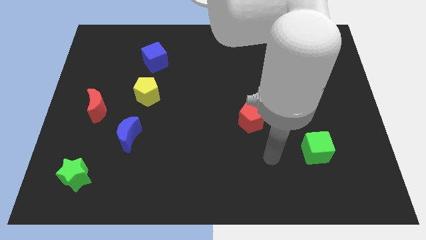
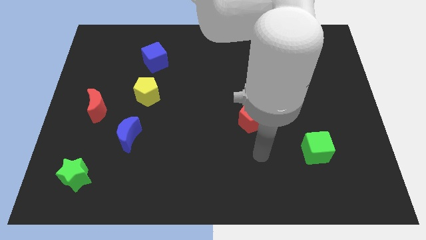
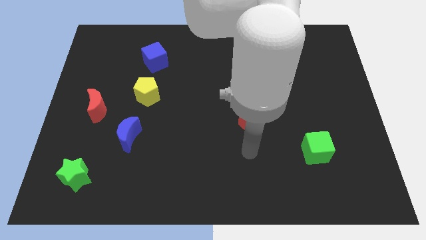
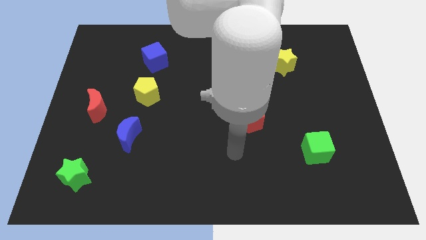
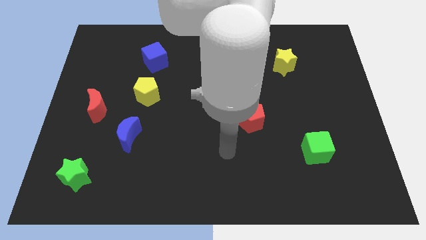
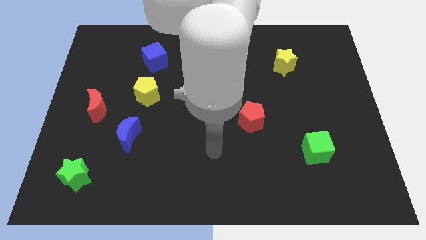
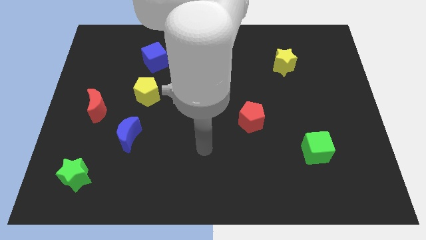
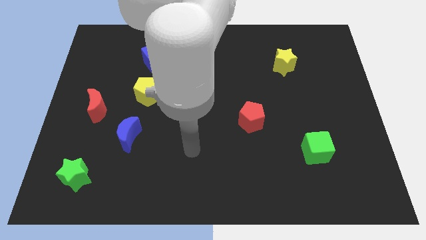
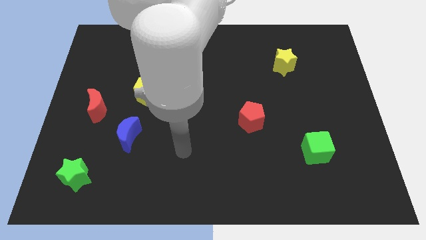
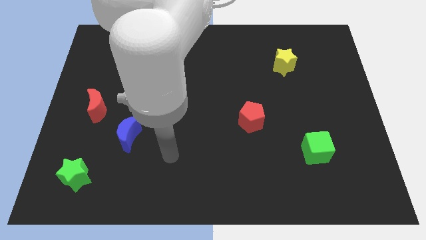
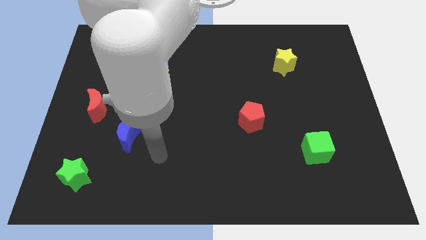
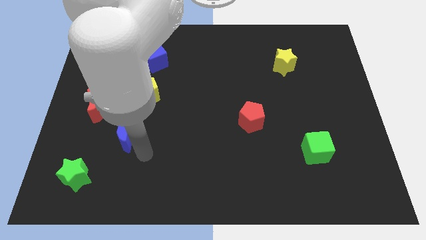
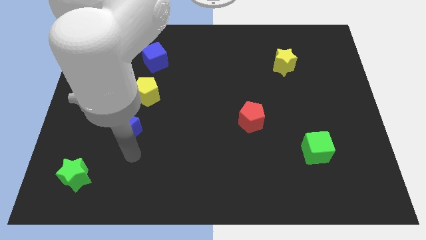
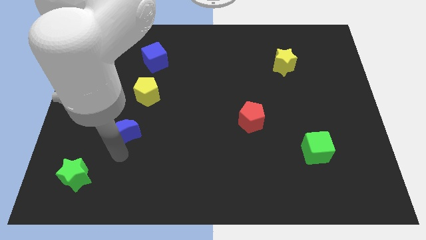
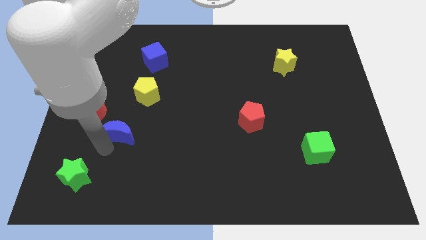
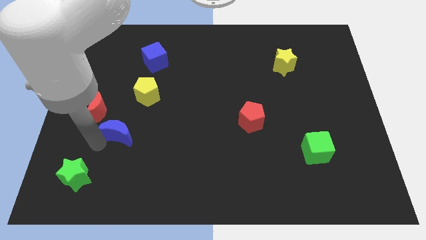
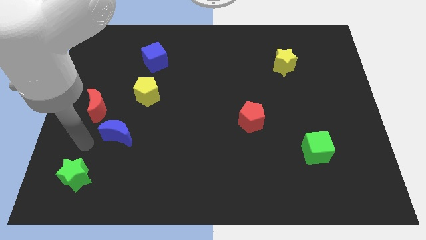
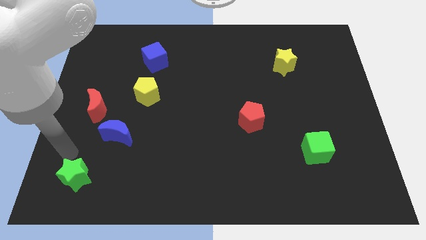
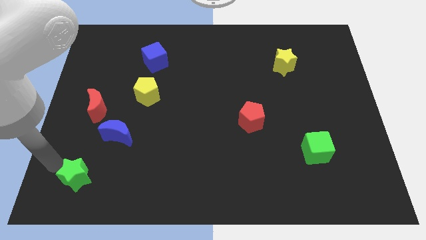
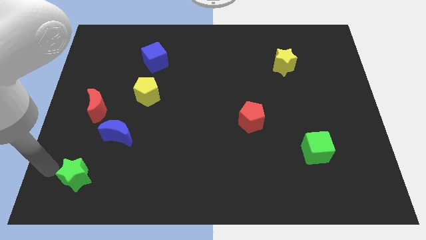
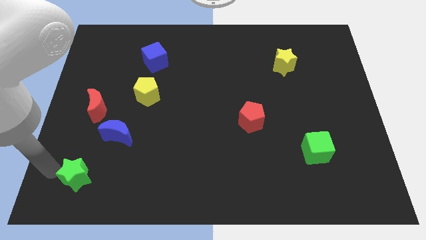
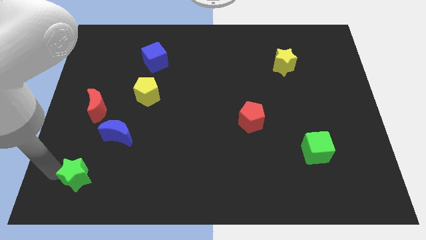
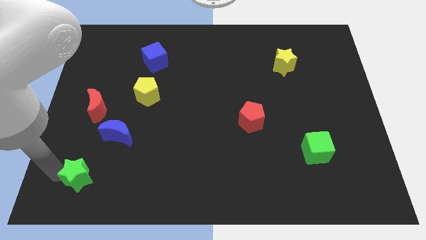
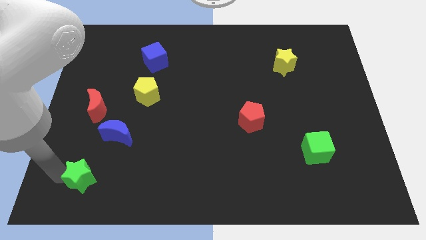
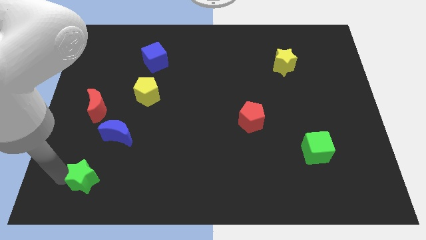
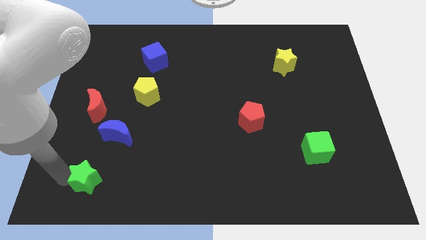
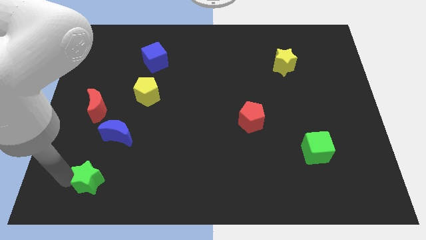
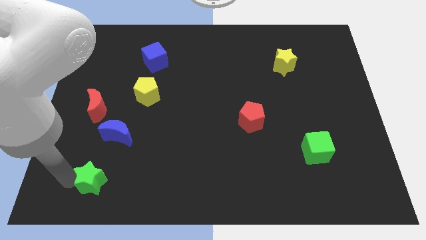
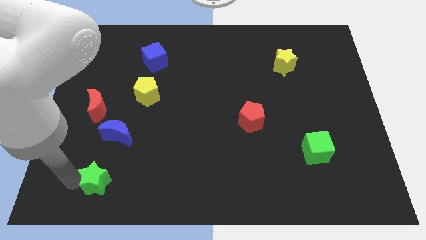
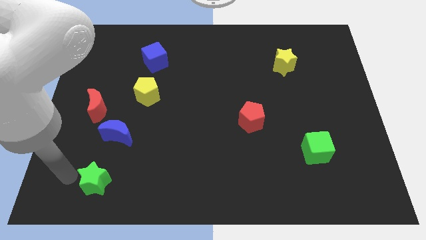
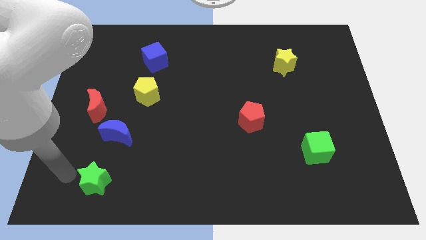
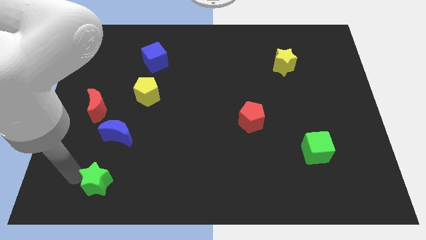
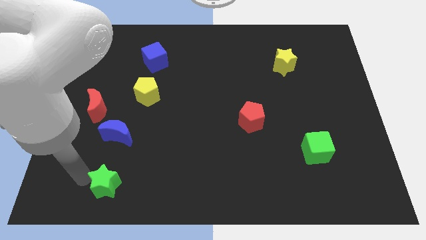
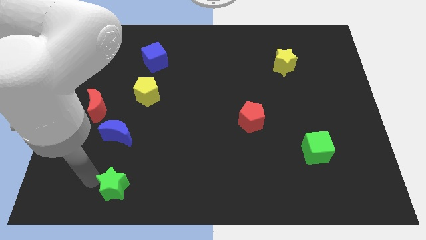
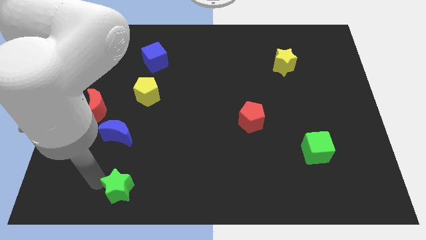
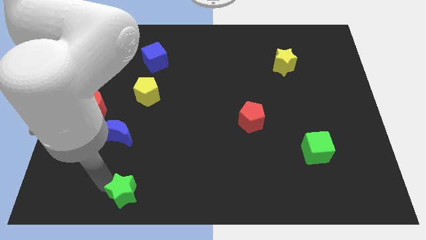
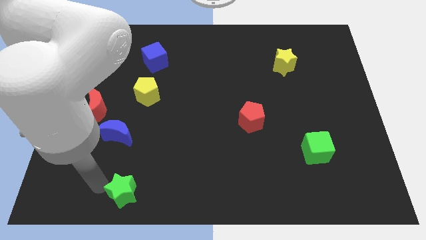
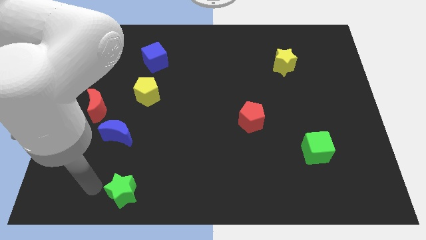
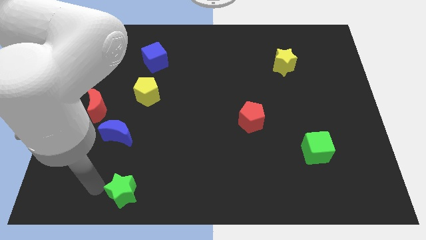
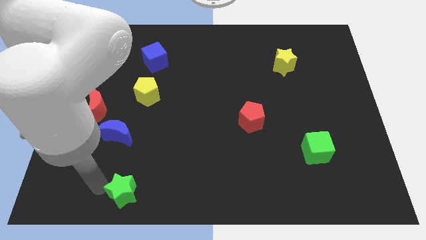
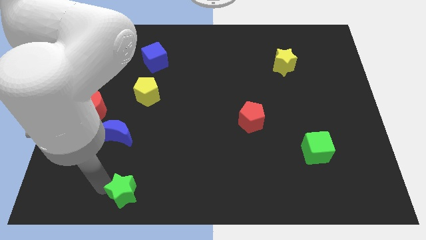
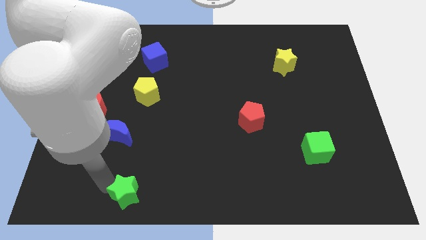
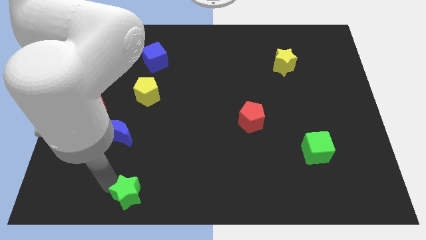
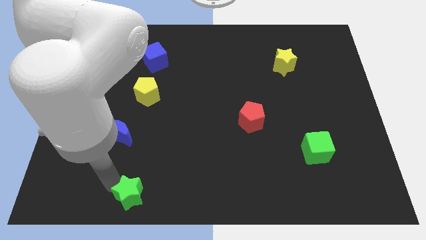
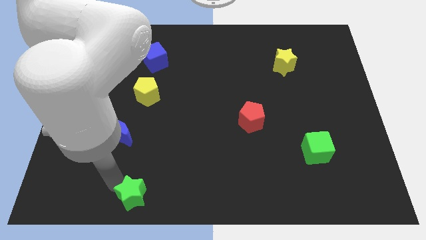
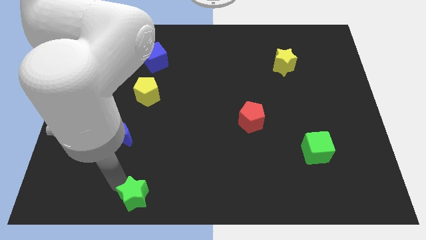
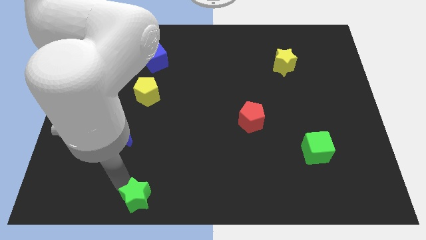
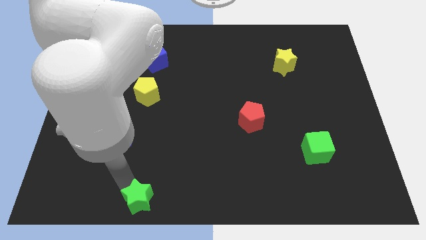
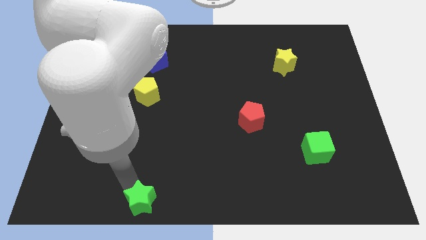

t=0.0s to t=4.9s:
move the green star to the bottom
